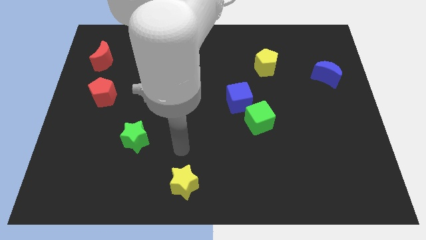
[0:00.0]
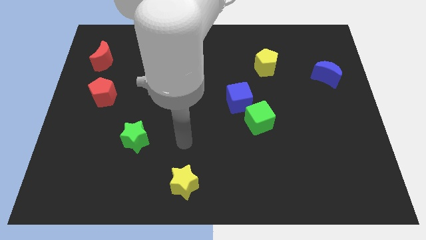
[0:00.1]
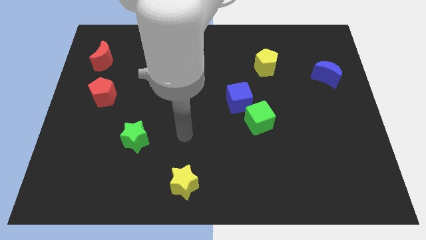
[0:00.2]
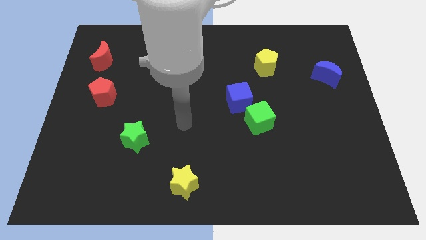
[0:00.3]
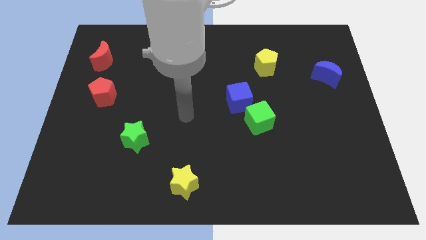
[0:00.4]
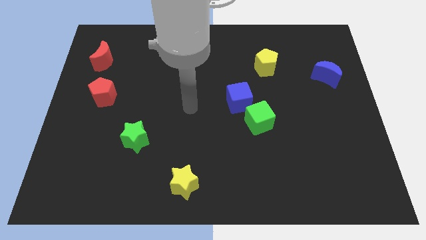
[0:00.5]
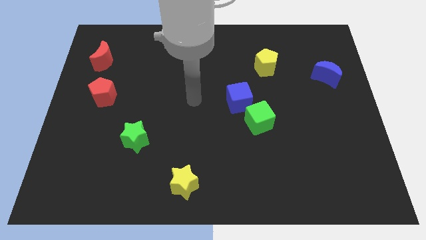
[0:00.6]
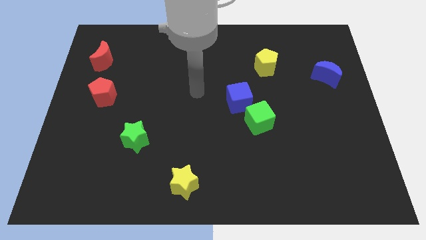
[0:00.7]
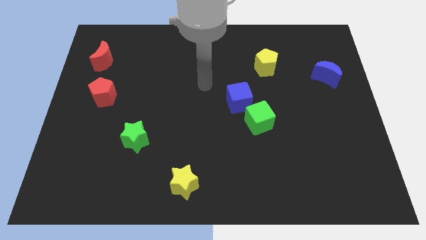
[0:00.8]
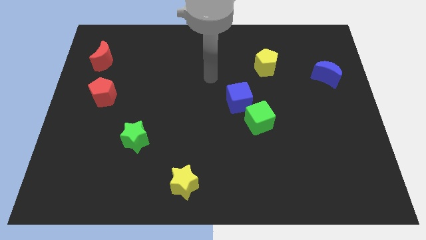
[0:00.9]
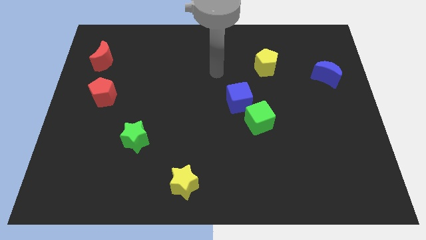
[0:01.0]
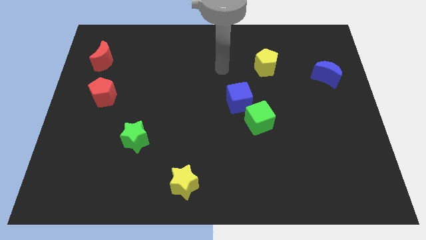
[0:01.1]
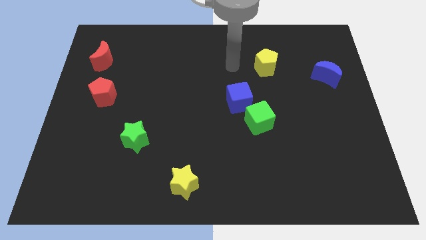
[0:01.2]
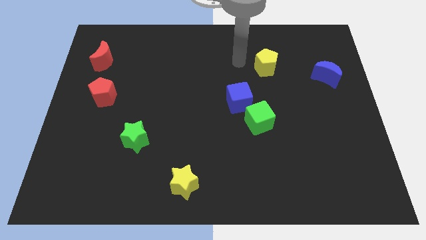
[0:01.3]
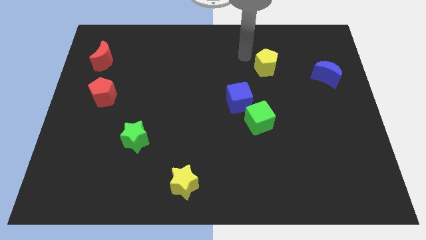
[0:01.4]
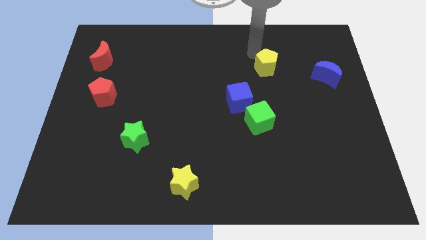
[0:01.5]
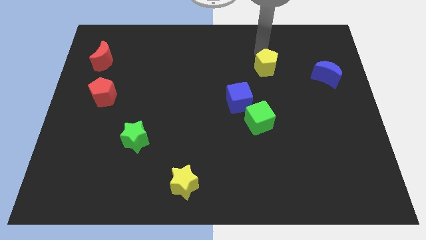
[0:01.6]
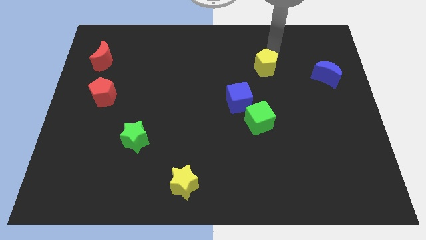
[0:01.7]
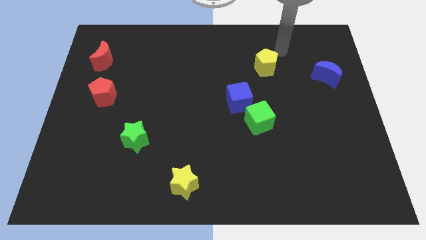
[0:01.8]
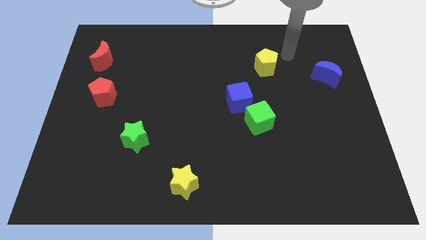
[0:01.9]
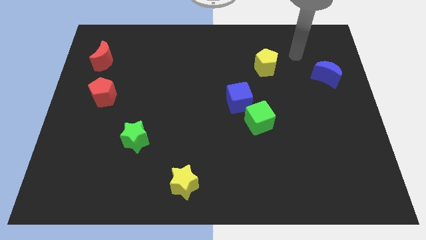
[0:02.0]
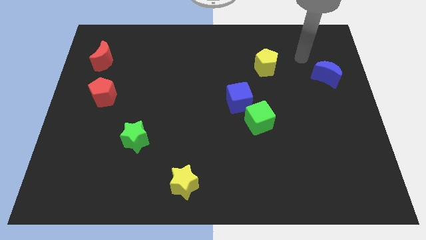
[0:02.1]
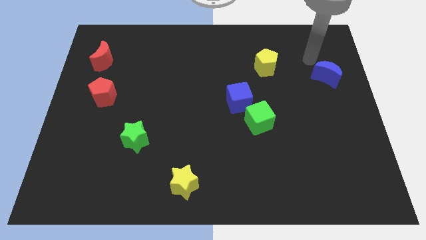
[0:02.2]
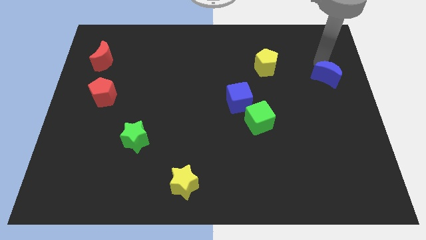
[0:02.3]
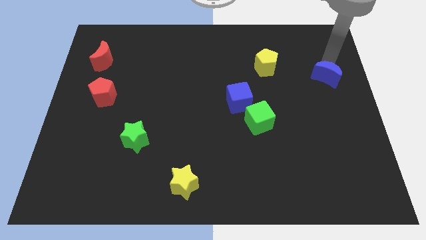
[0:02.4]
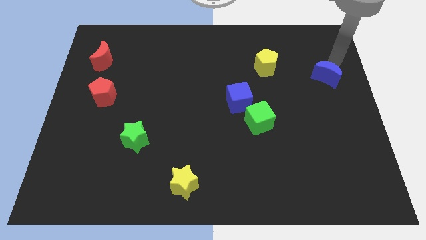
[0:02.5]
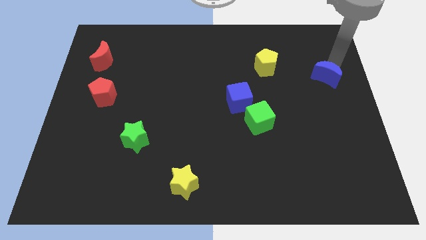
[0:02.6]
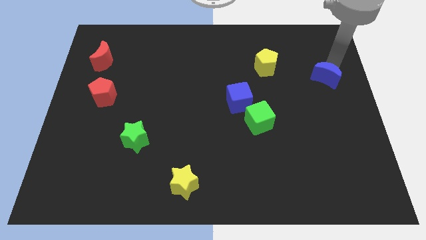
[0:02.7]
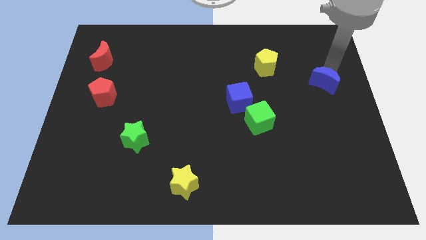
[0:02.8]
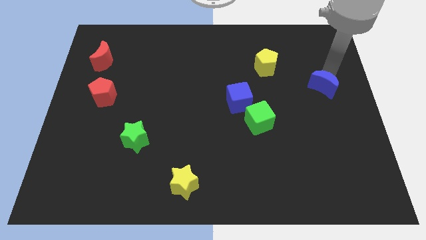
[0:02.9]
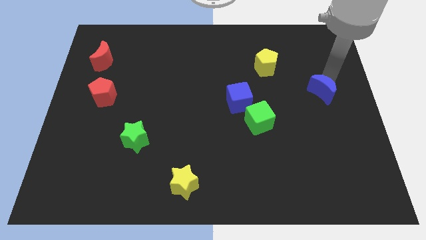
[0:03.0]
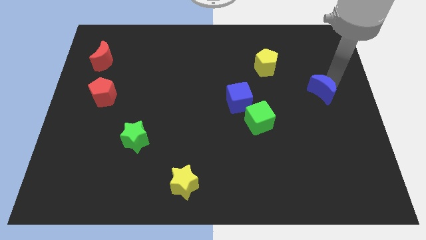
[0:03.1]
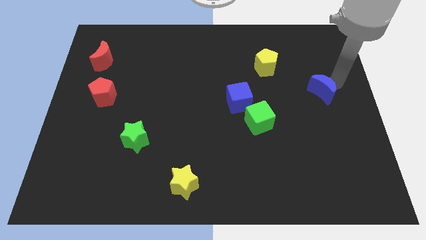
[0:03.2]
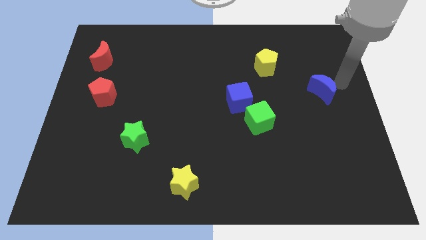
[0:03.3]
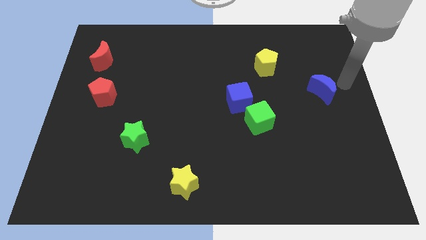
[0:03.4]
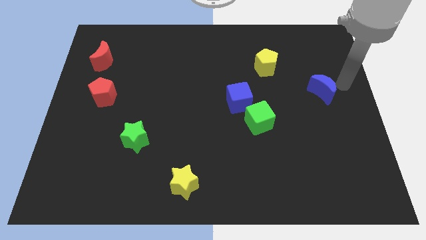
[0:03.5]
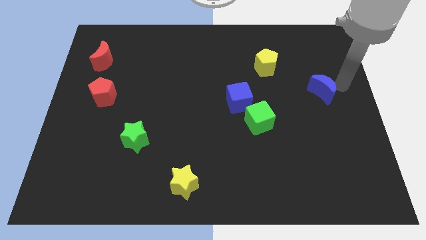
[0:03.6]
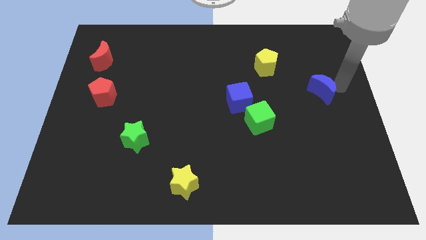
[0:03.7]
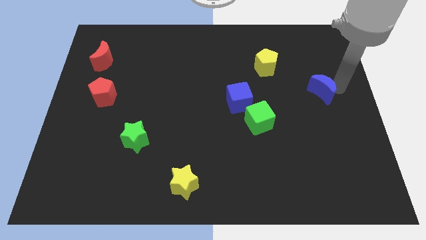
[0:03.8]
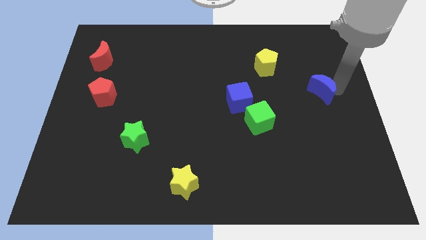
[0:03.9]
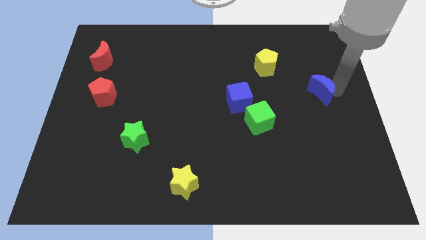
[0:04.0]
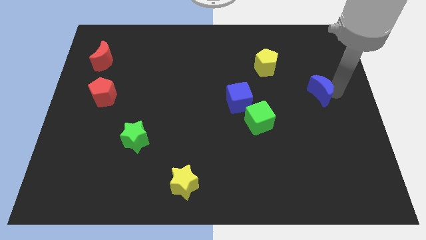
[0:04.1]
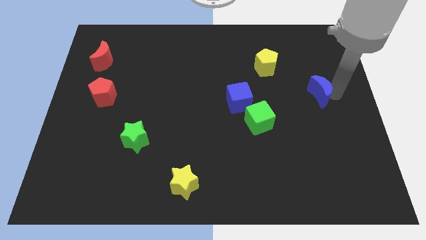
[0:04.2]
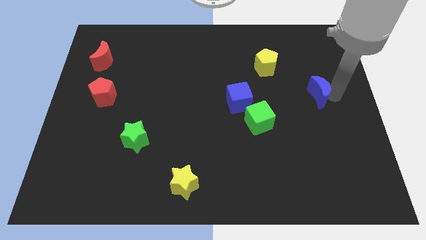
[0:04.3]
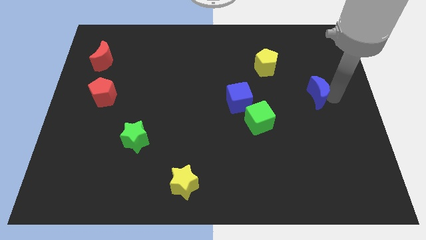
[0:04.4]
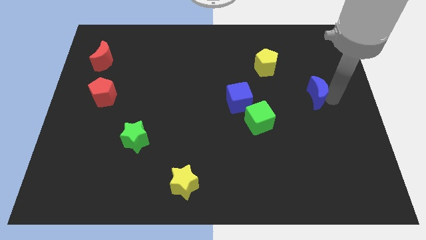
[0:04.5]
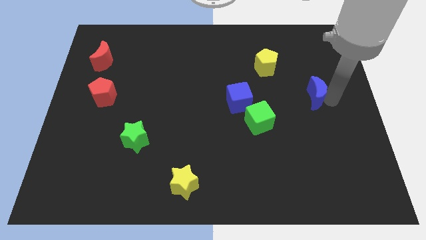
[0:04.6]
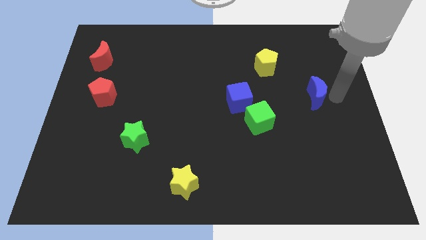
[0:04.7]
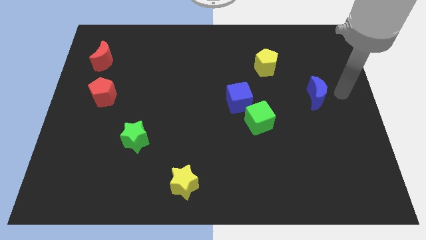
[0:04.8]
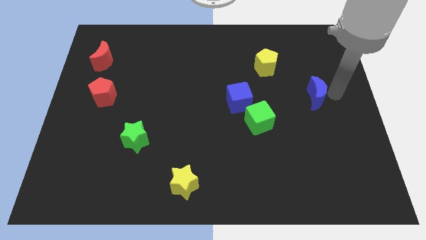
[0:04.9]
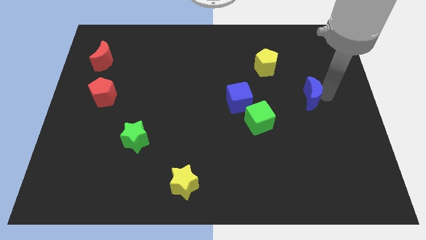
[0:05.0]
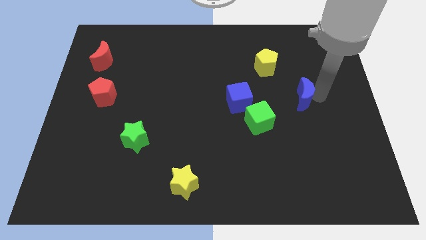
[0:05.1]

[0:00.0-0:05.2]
slide the blue moon to the right side of the blue cube

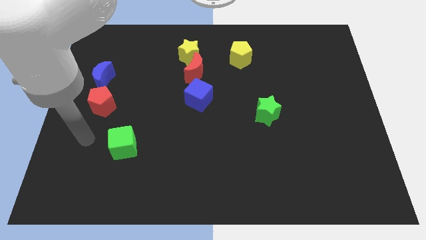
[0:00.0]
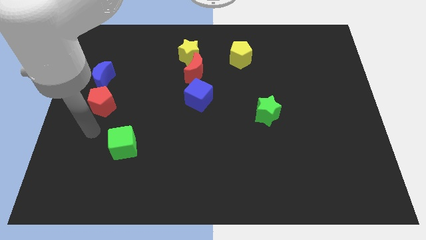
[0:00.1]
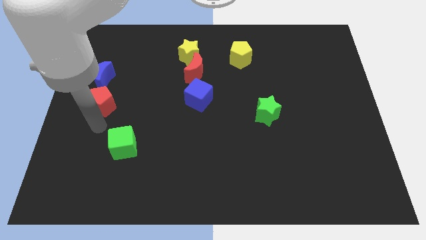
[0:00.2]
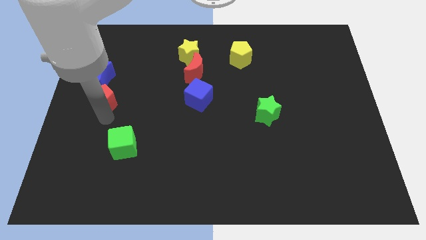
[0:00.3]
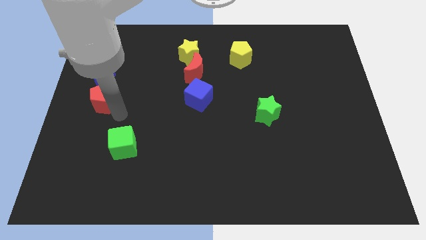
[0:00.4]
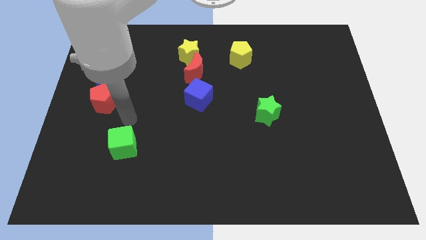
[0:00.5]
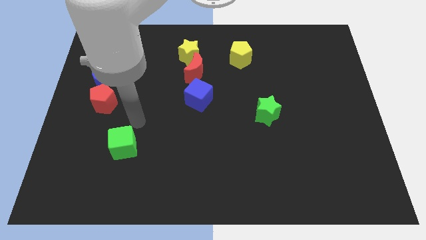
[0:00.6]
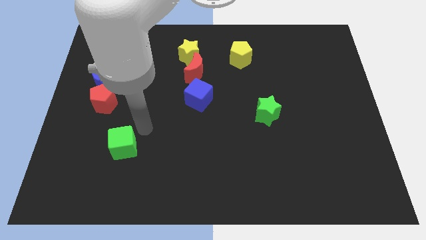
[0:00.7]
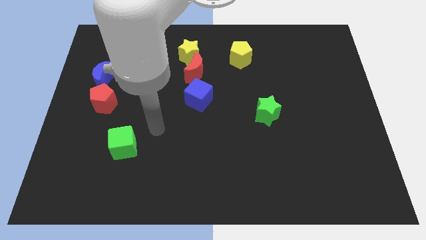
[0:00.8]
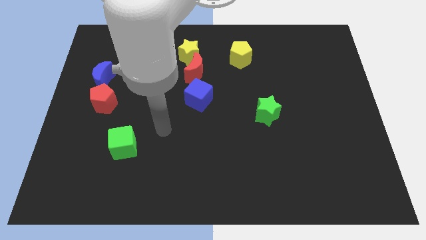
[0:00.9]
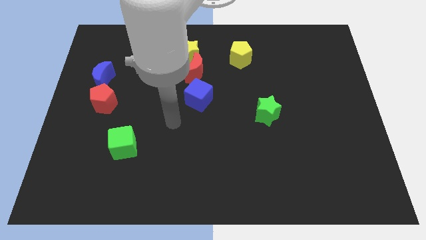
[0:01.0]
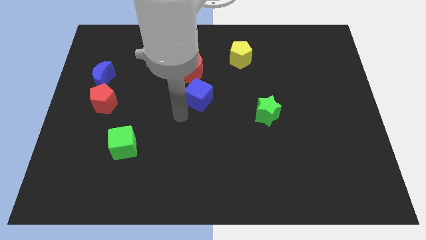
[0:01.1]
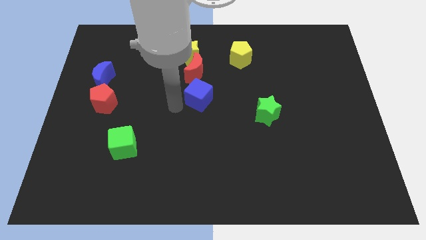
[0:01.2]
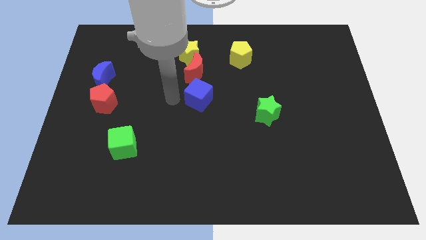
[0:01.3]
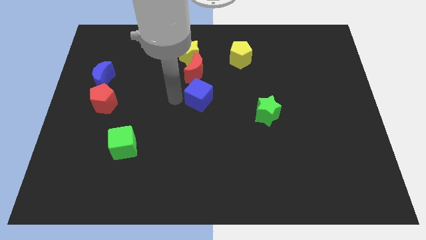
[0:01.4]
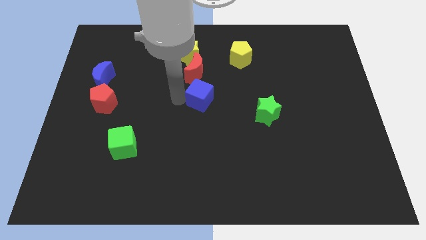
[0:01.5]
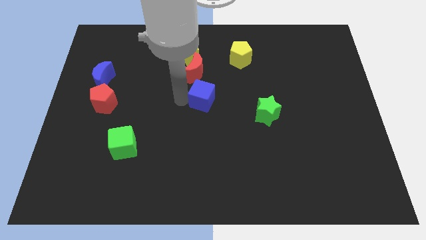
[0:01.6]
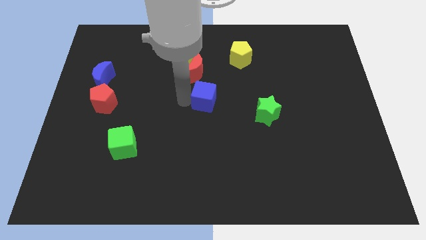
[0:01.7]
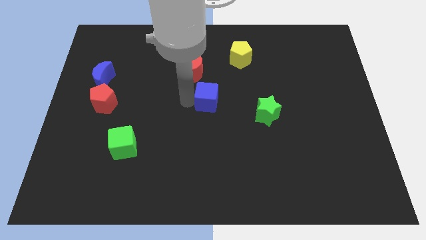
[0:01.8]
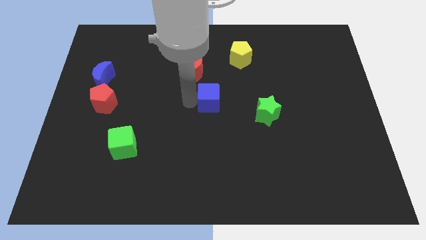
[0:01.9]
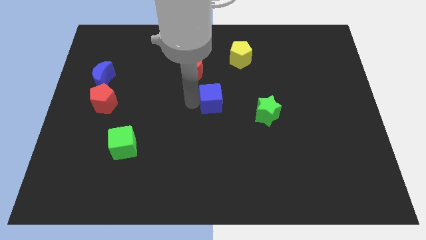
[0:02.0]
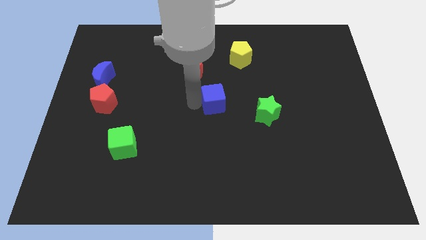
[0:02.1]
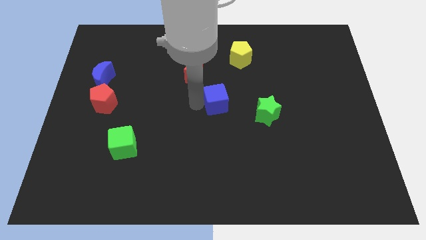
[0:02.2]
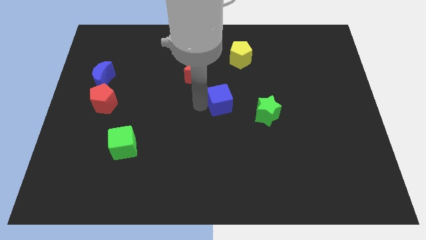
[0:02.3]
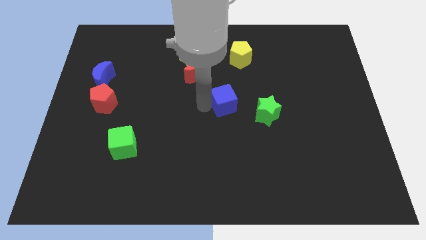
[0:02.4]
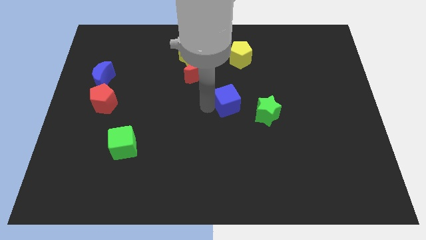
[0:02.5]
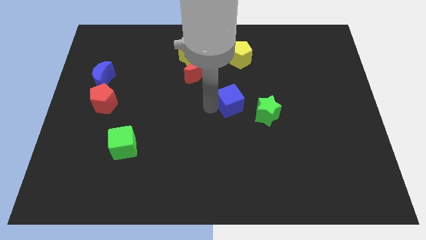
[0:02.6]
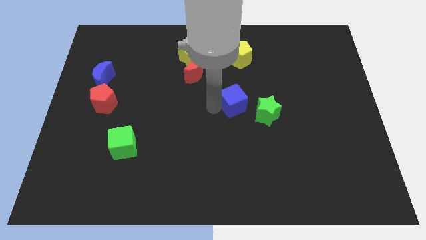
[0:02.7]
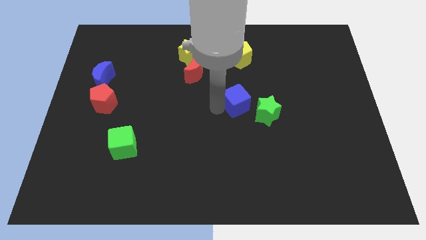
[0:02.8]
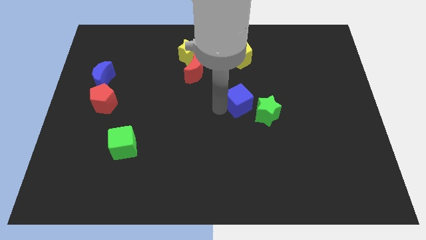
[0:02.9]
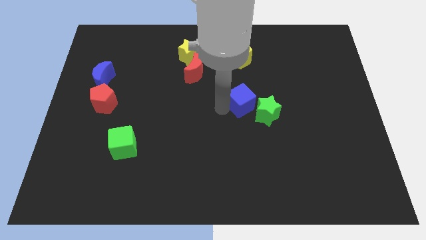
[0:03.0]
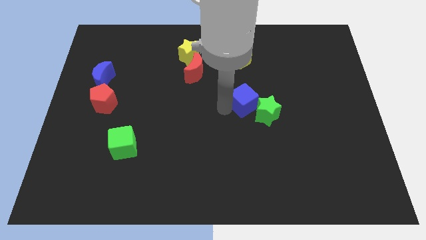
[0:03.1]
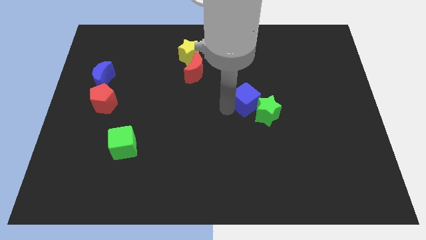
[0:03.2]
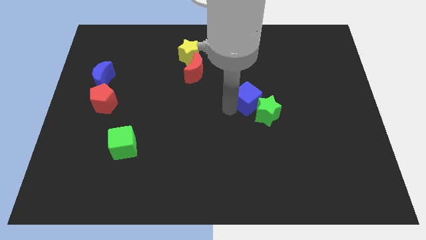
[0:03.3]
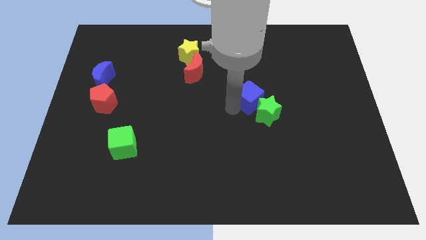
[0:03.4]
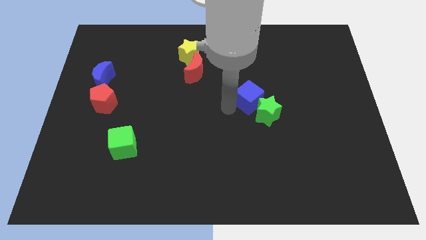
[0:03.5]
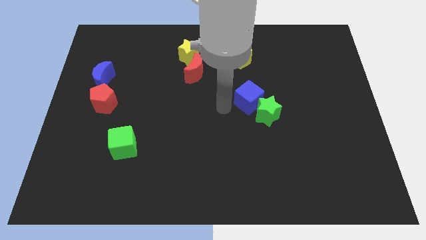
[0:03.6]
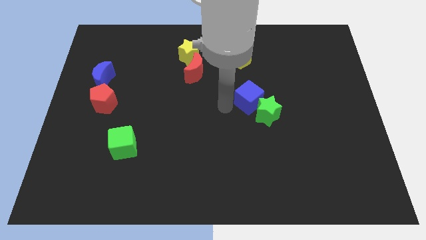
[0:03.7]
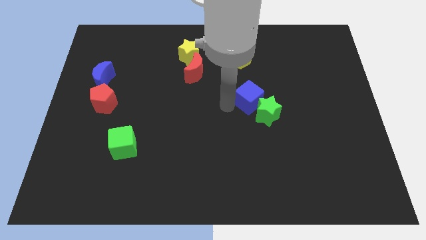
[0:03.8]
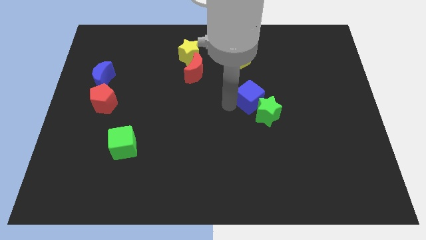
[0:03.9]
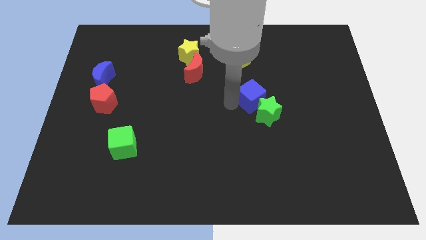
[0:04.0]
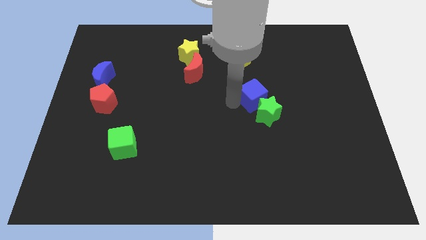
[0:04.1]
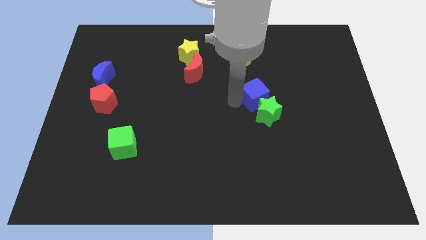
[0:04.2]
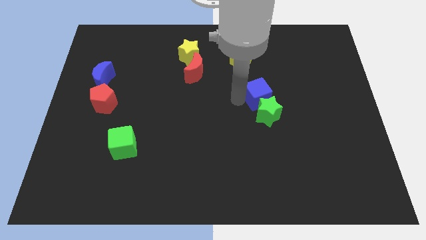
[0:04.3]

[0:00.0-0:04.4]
move the blue cube to the top right of the green star
